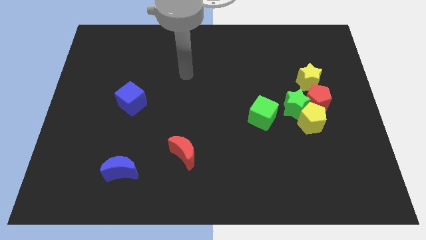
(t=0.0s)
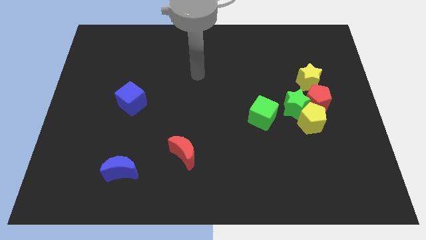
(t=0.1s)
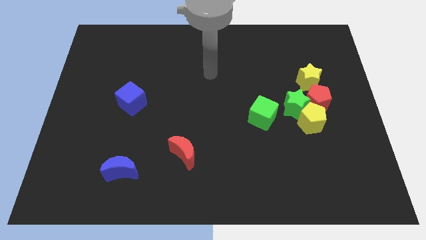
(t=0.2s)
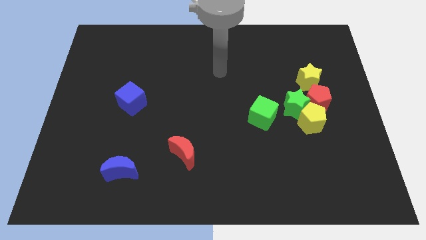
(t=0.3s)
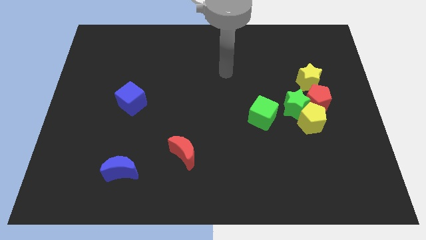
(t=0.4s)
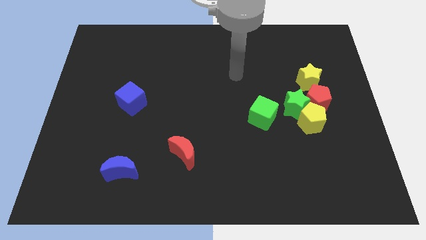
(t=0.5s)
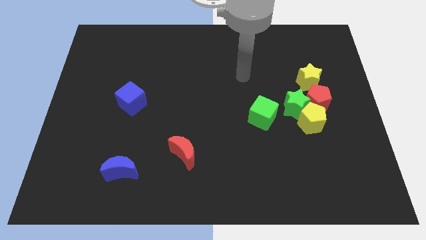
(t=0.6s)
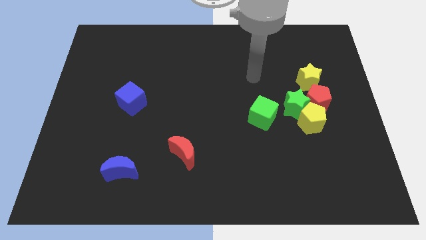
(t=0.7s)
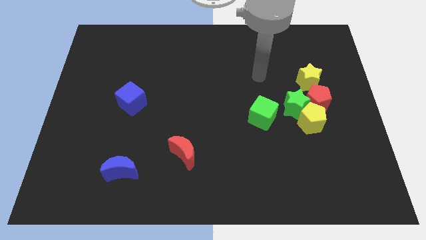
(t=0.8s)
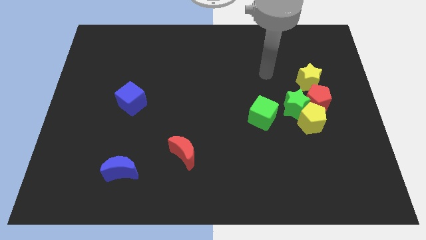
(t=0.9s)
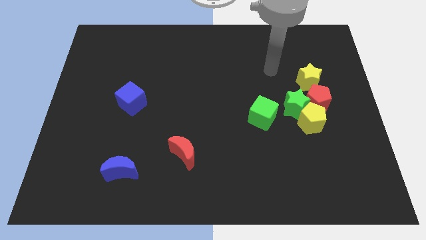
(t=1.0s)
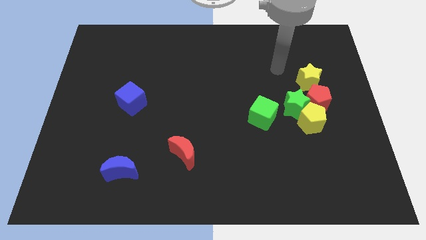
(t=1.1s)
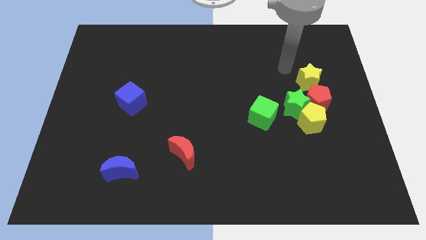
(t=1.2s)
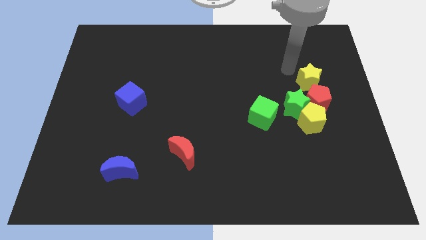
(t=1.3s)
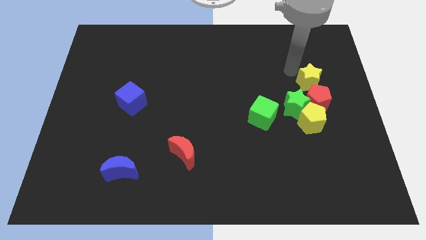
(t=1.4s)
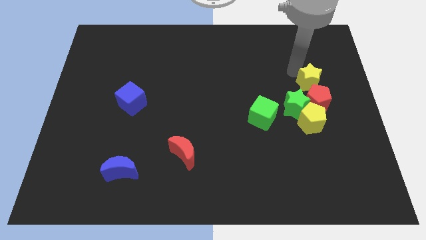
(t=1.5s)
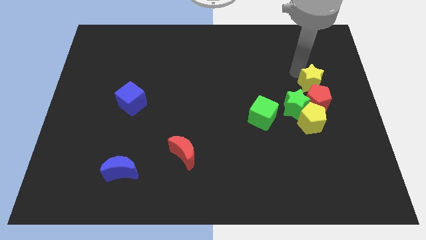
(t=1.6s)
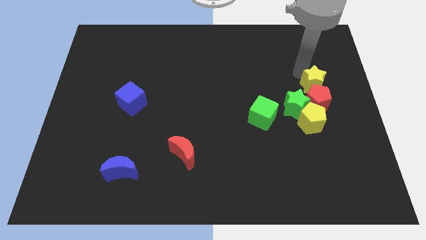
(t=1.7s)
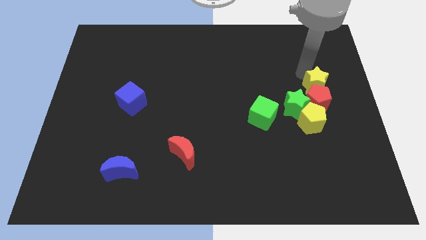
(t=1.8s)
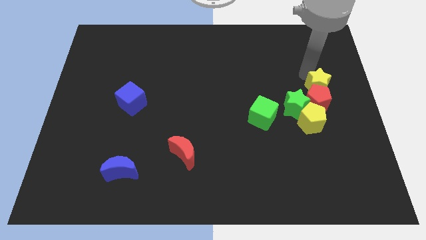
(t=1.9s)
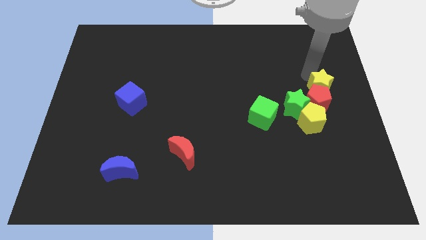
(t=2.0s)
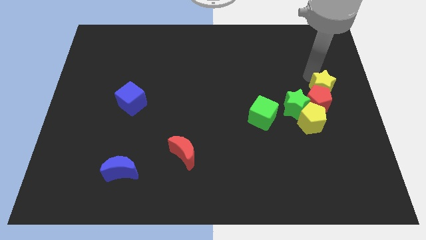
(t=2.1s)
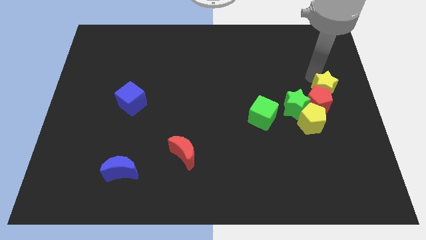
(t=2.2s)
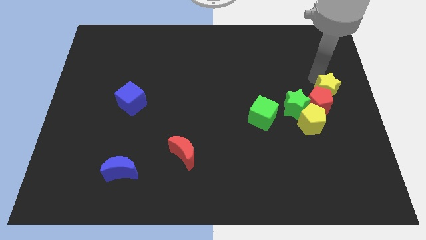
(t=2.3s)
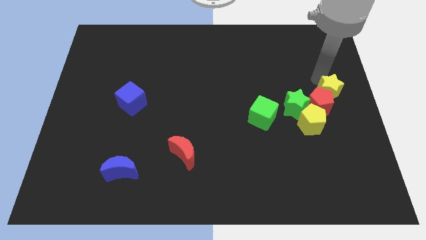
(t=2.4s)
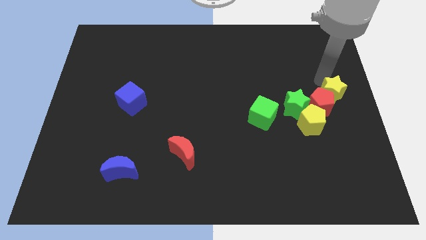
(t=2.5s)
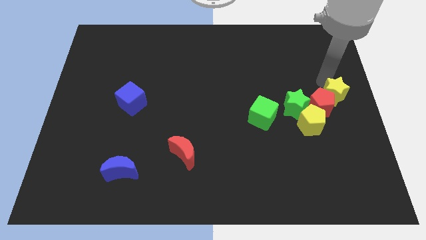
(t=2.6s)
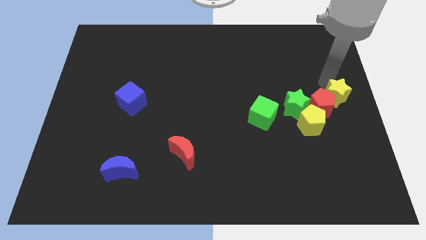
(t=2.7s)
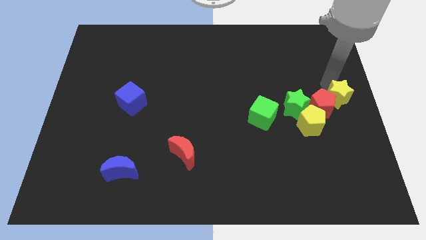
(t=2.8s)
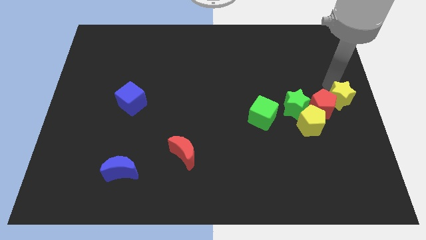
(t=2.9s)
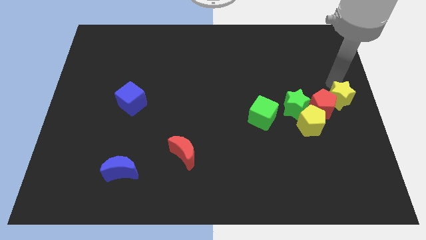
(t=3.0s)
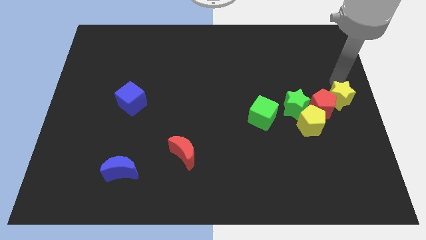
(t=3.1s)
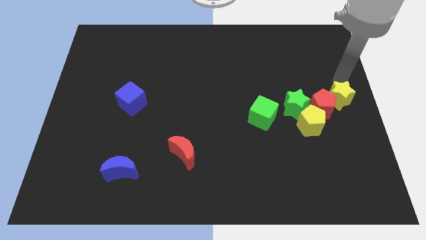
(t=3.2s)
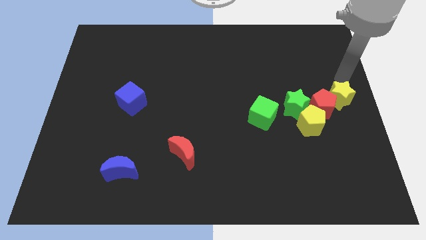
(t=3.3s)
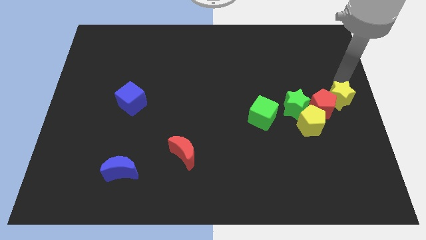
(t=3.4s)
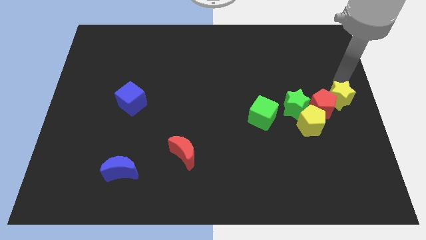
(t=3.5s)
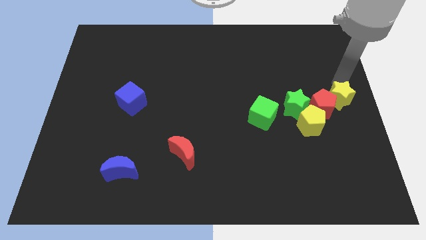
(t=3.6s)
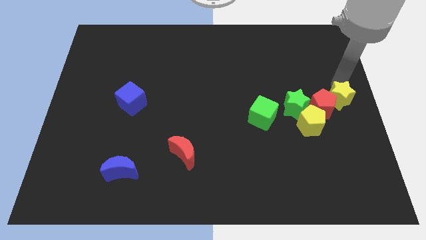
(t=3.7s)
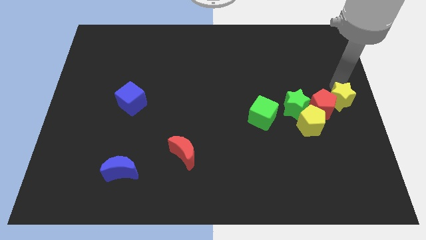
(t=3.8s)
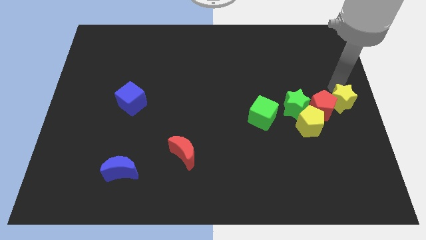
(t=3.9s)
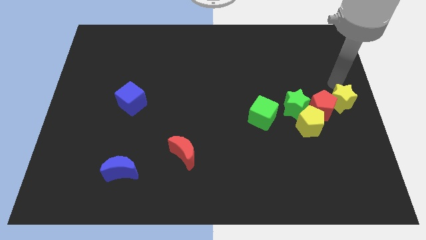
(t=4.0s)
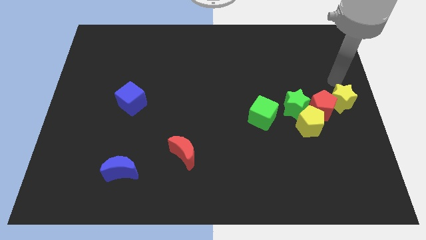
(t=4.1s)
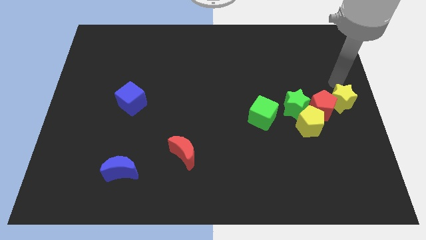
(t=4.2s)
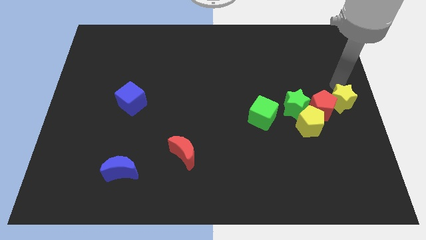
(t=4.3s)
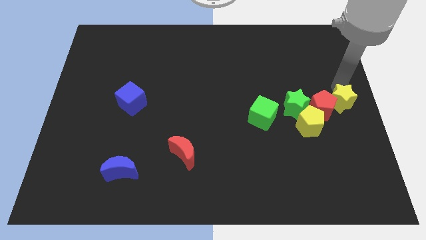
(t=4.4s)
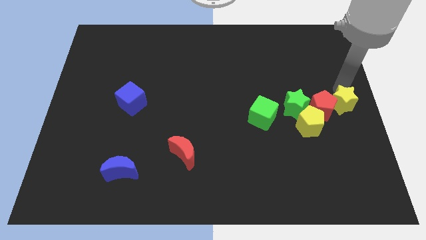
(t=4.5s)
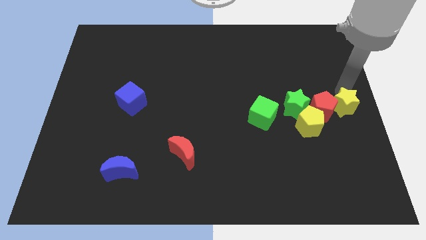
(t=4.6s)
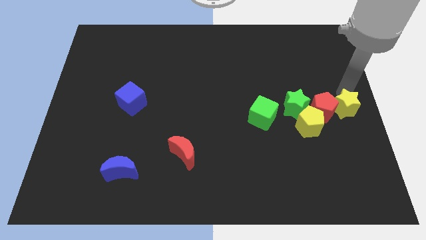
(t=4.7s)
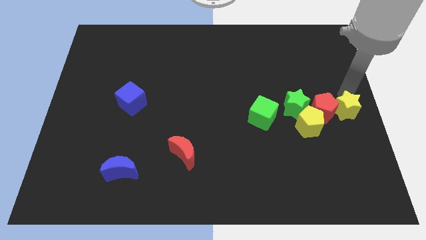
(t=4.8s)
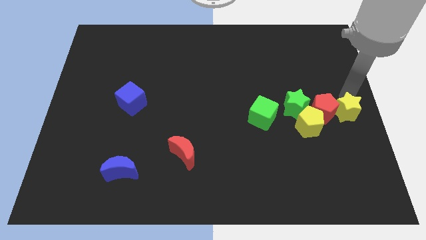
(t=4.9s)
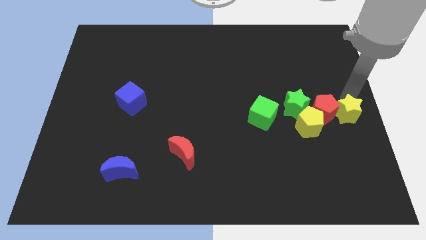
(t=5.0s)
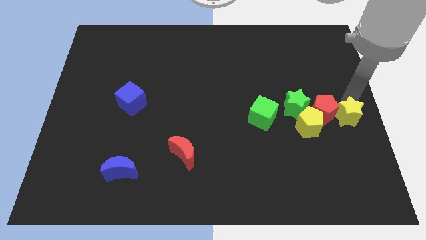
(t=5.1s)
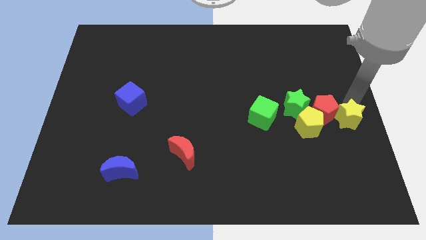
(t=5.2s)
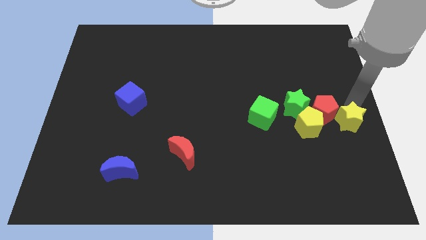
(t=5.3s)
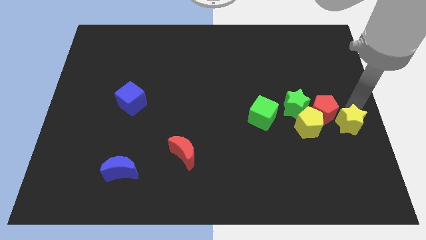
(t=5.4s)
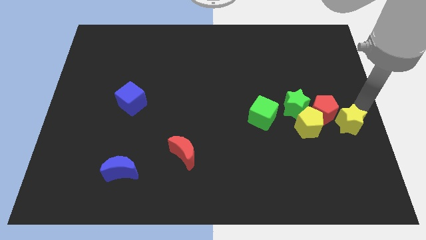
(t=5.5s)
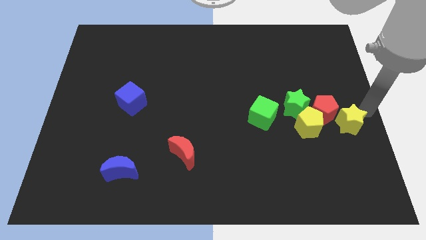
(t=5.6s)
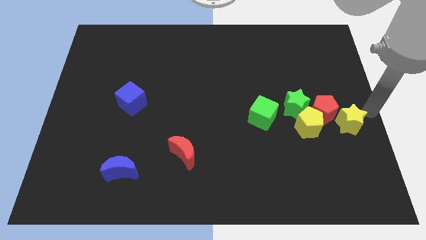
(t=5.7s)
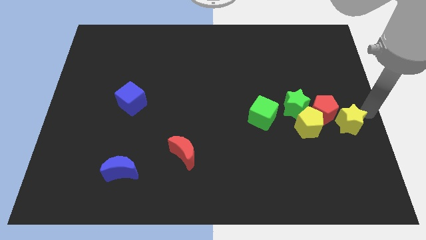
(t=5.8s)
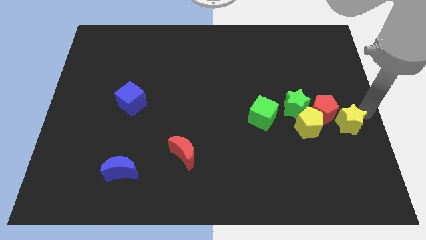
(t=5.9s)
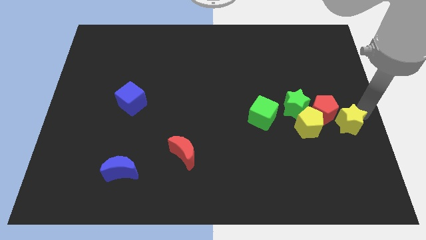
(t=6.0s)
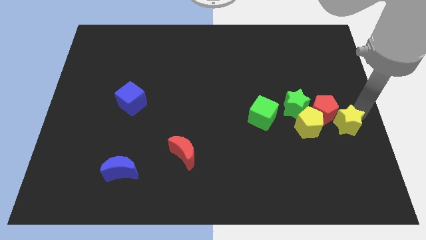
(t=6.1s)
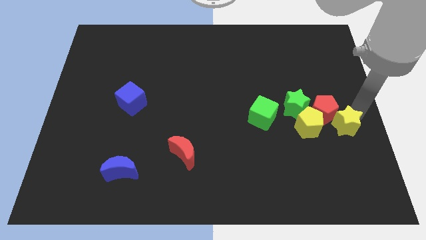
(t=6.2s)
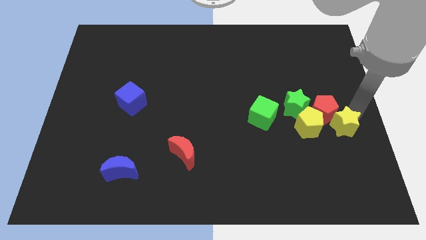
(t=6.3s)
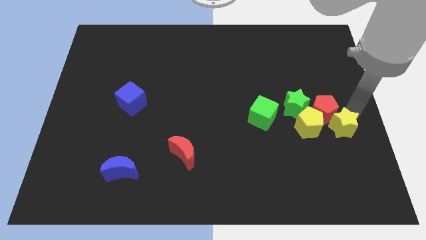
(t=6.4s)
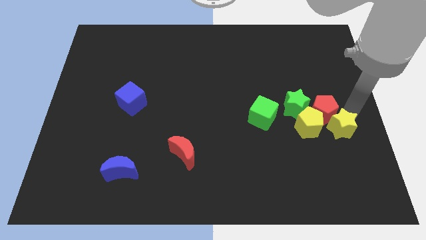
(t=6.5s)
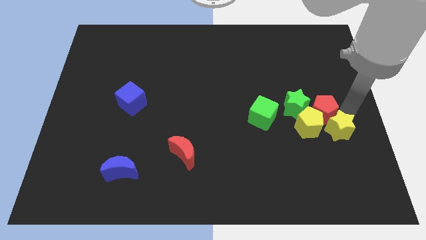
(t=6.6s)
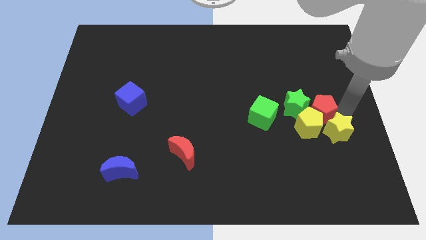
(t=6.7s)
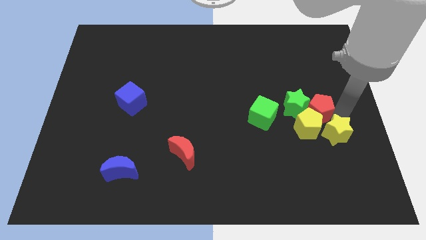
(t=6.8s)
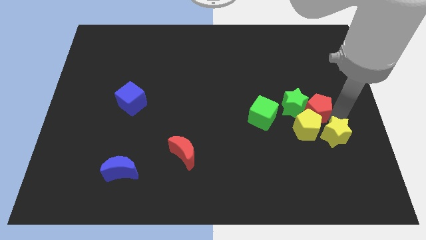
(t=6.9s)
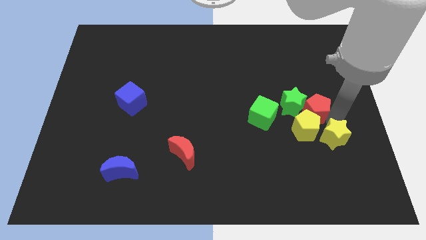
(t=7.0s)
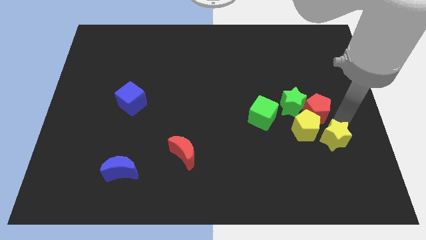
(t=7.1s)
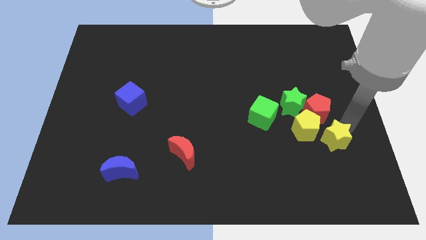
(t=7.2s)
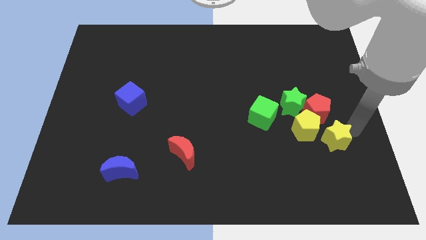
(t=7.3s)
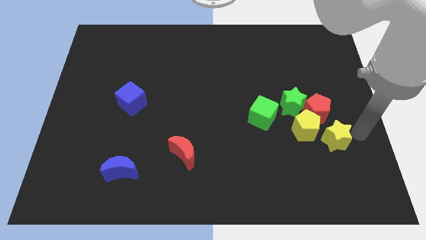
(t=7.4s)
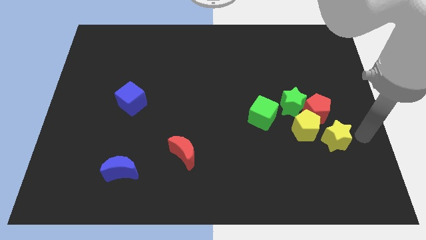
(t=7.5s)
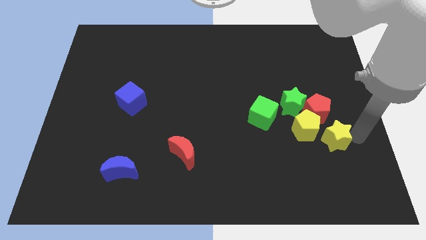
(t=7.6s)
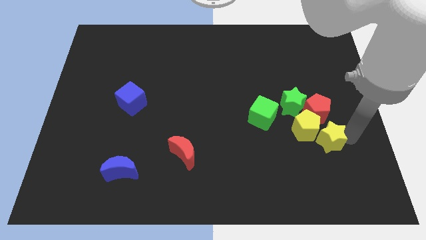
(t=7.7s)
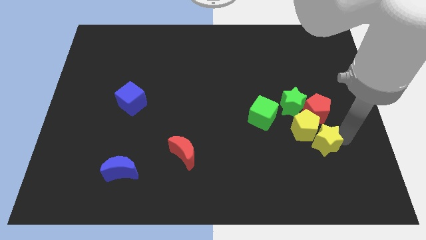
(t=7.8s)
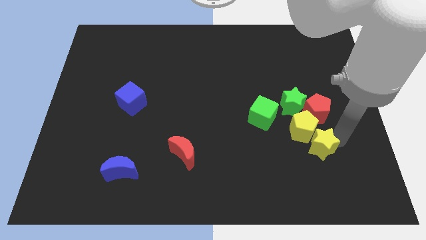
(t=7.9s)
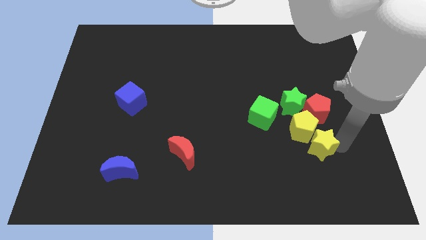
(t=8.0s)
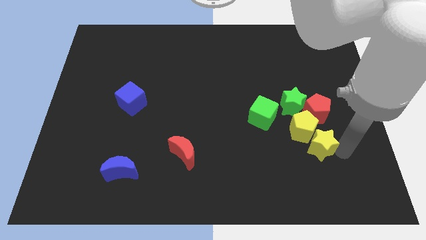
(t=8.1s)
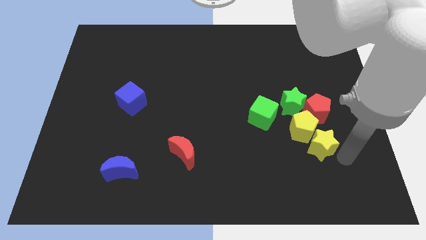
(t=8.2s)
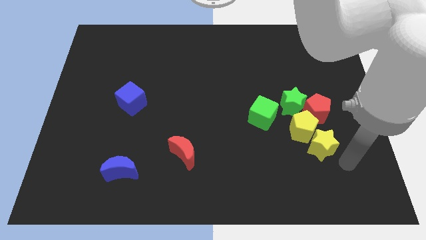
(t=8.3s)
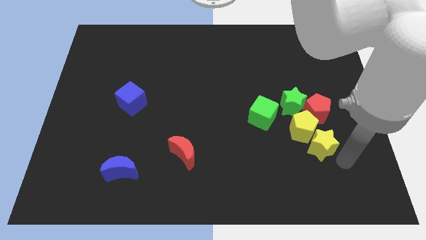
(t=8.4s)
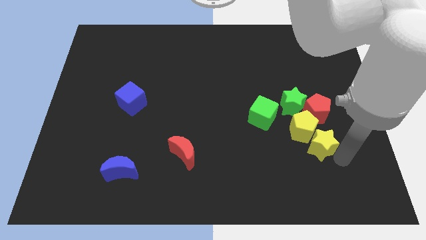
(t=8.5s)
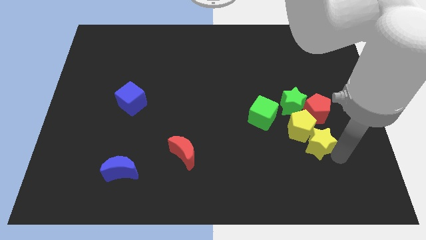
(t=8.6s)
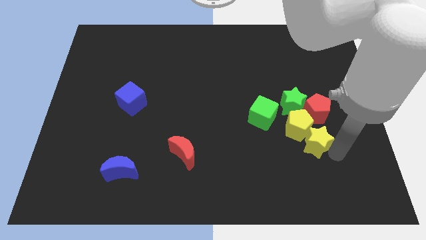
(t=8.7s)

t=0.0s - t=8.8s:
slide the yellow star to the bottom left side of the red pentagon
